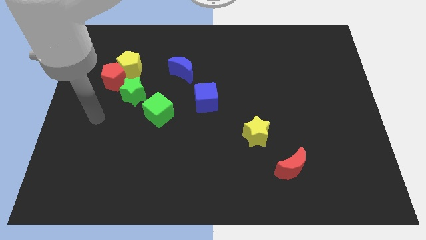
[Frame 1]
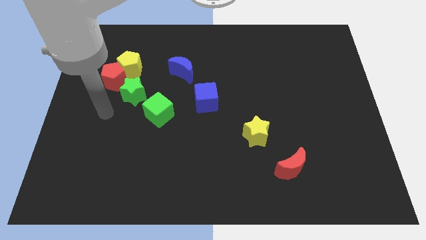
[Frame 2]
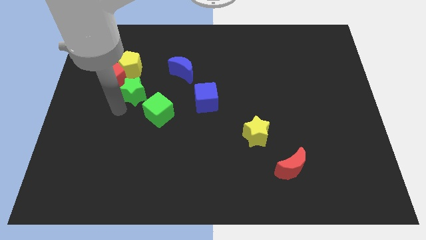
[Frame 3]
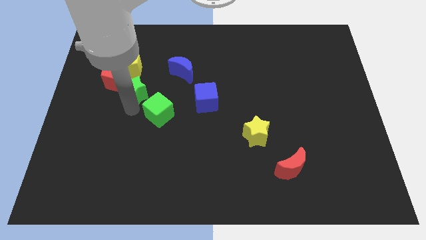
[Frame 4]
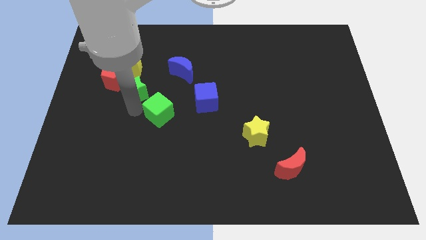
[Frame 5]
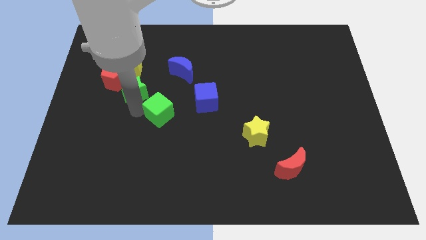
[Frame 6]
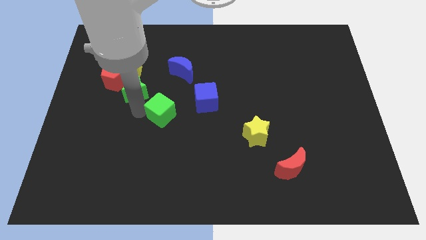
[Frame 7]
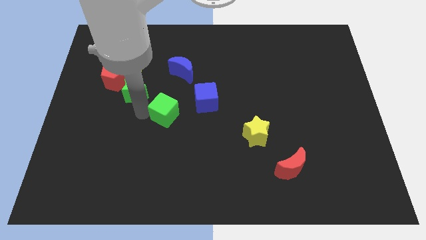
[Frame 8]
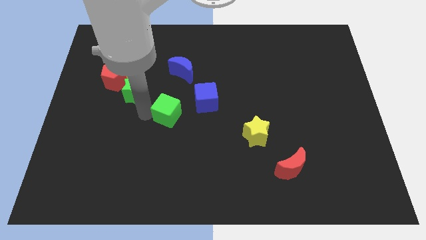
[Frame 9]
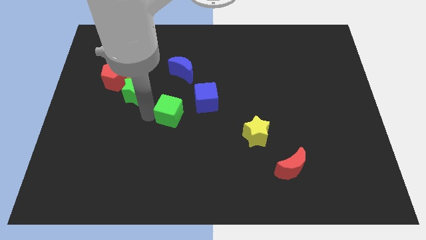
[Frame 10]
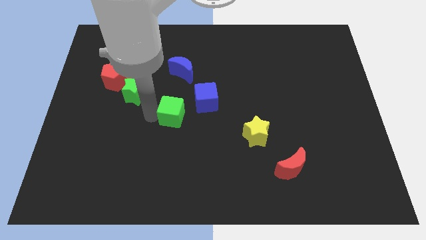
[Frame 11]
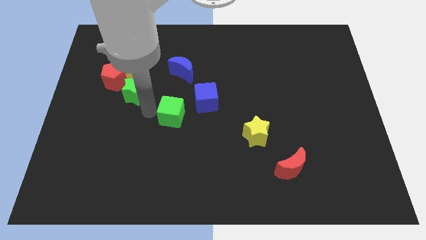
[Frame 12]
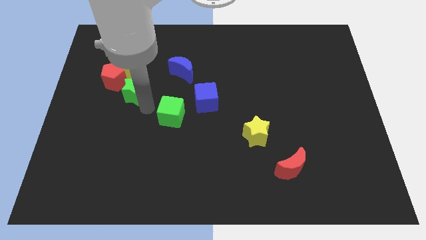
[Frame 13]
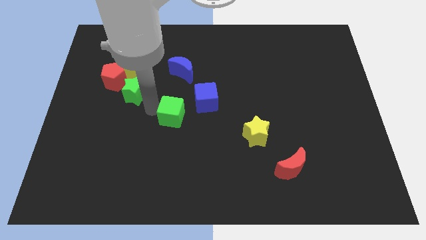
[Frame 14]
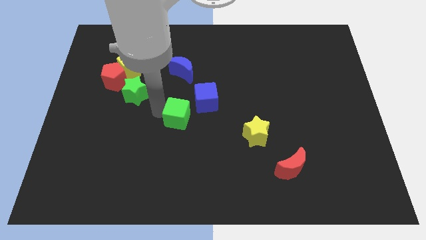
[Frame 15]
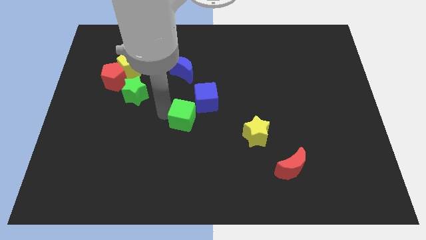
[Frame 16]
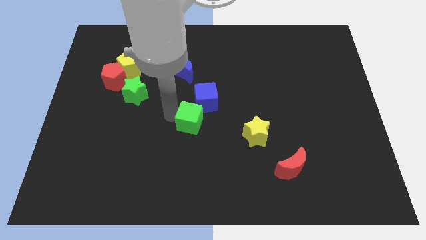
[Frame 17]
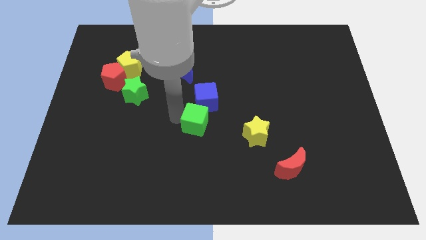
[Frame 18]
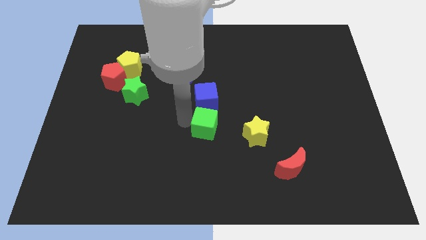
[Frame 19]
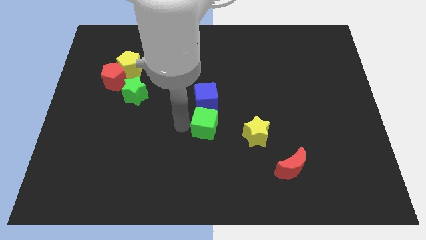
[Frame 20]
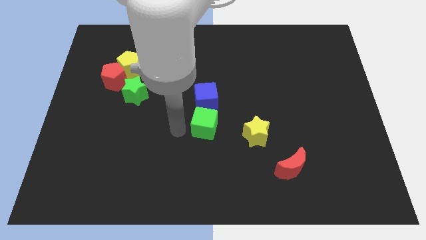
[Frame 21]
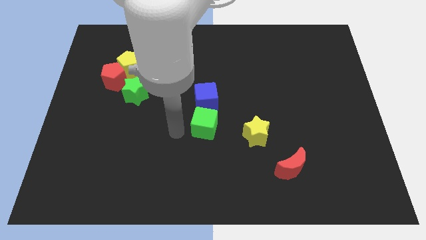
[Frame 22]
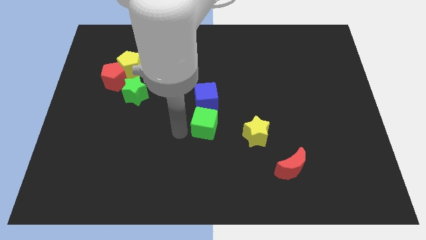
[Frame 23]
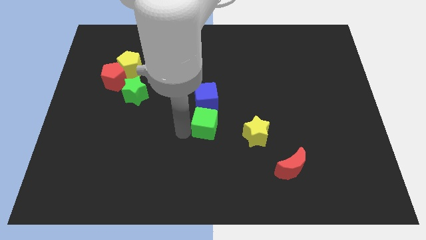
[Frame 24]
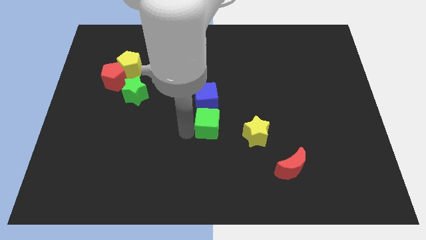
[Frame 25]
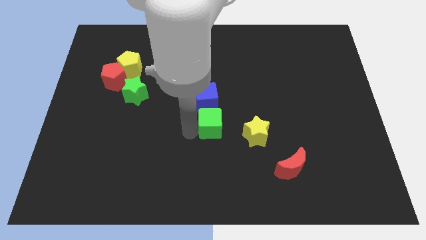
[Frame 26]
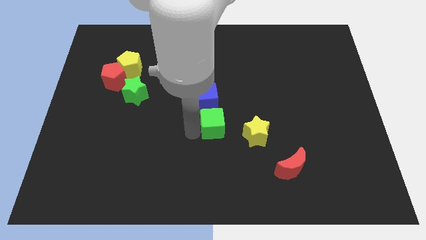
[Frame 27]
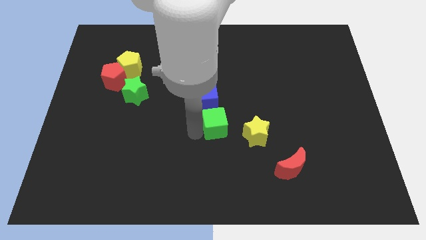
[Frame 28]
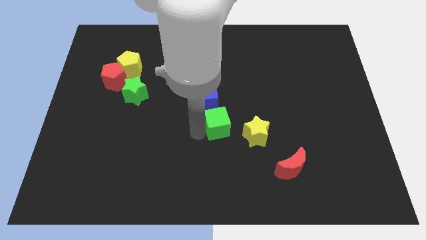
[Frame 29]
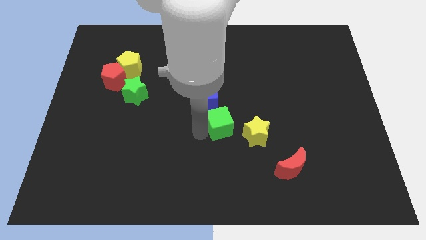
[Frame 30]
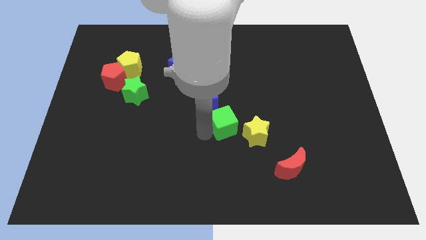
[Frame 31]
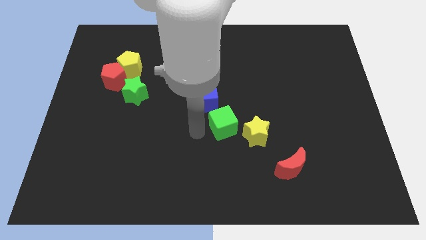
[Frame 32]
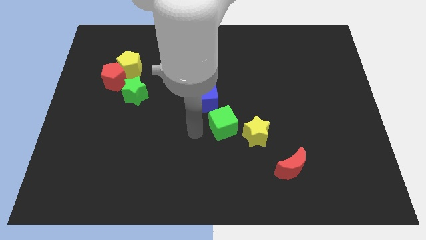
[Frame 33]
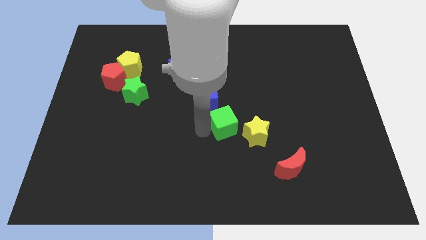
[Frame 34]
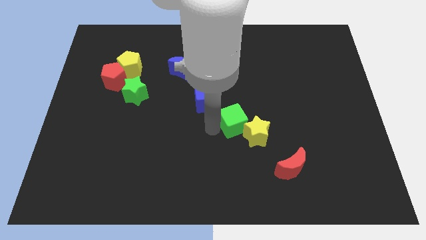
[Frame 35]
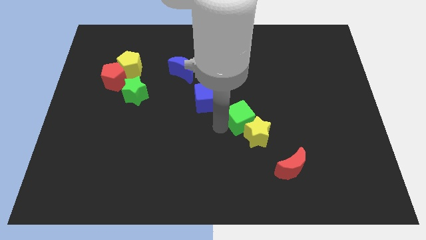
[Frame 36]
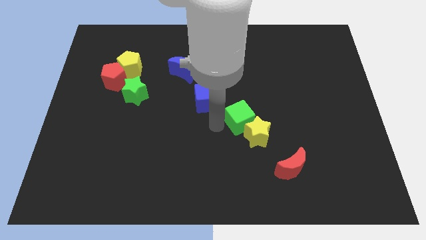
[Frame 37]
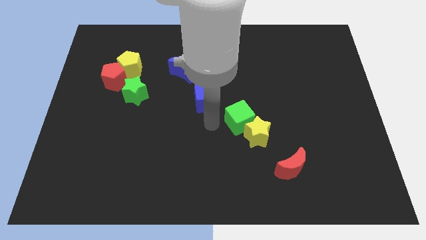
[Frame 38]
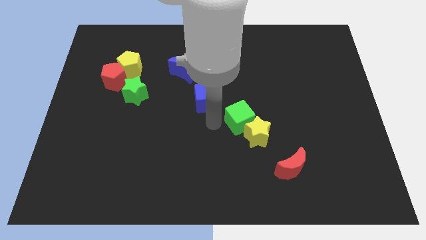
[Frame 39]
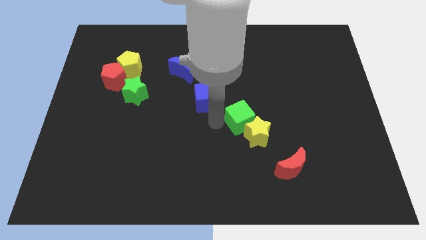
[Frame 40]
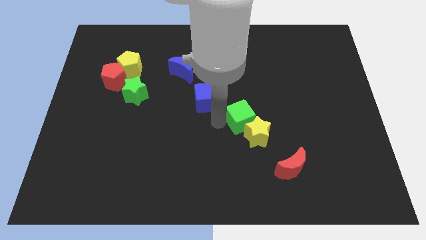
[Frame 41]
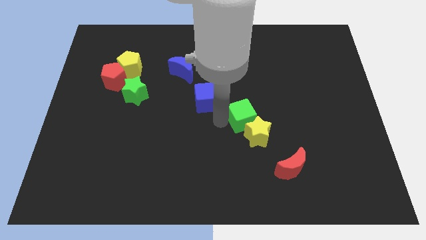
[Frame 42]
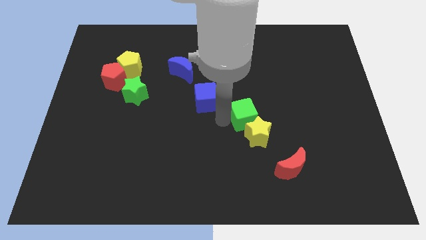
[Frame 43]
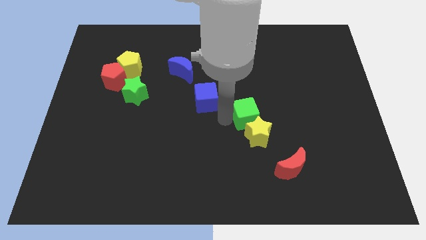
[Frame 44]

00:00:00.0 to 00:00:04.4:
push the green cube to the right

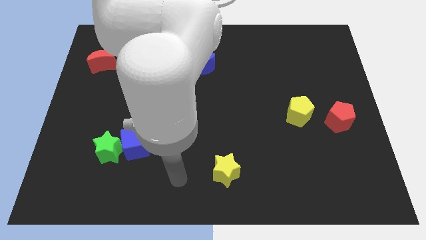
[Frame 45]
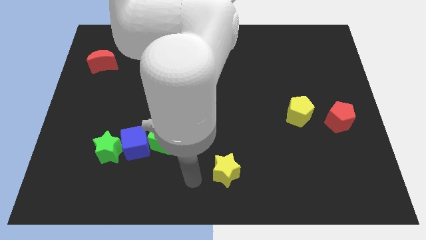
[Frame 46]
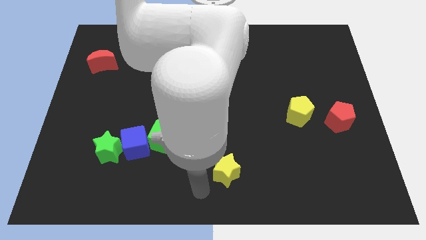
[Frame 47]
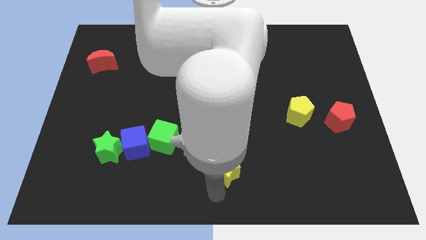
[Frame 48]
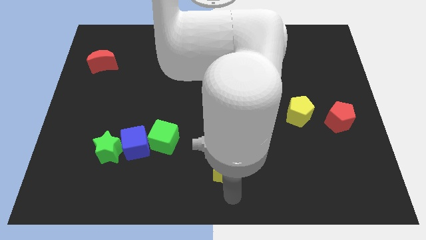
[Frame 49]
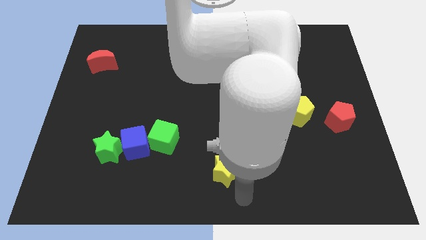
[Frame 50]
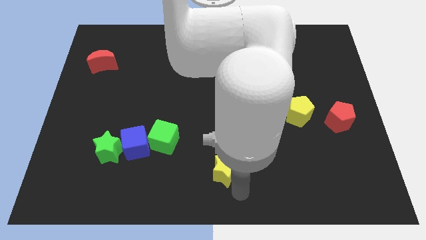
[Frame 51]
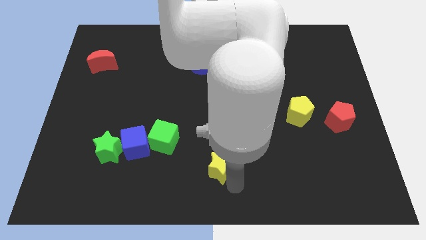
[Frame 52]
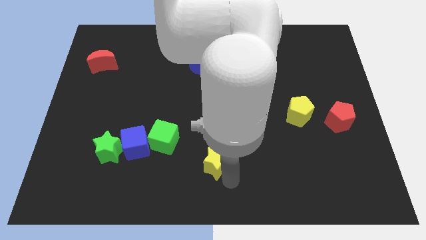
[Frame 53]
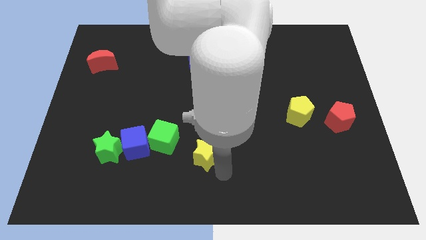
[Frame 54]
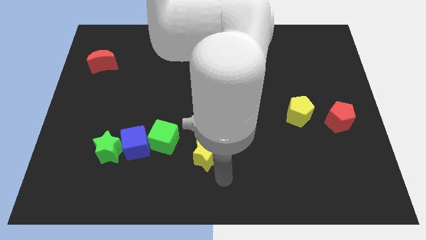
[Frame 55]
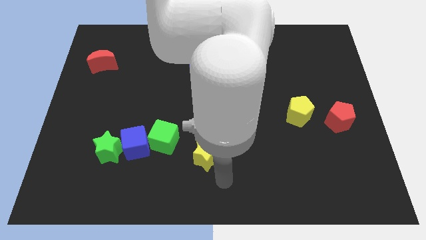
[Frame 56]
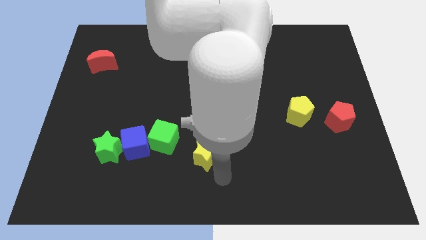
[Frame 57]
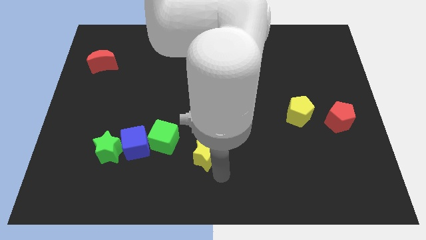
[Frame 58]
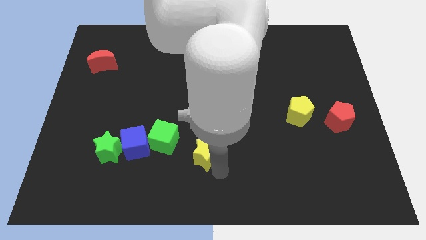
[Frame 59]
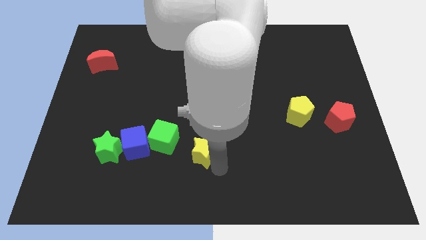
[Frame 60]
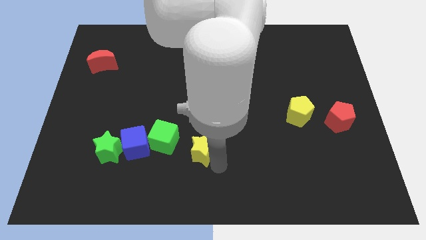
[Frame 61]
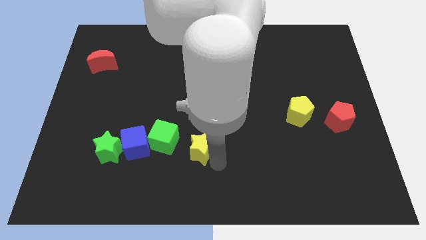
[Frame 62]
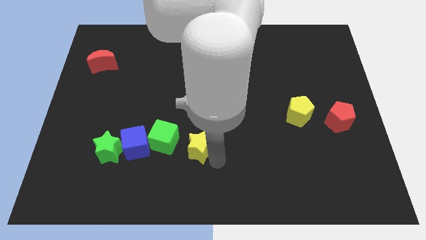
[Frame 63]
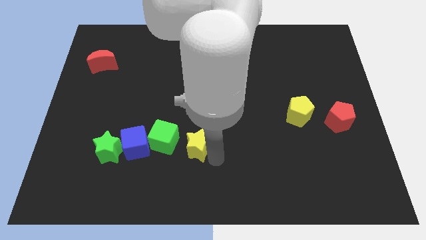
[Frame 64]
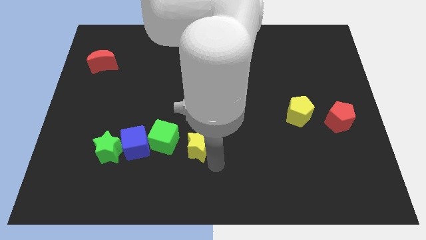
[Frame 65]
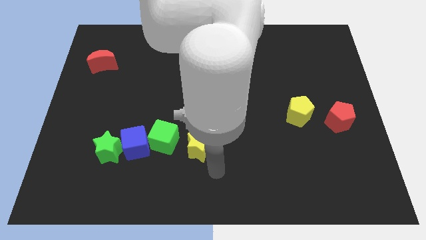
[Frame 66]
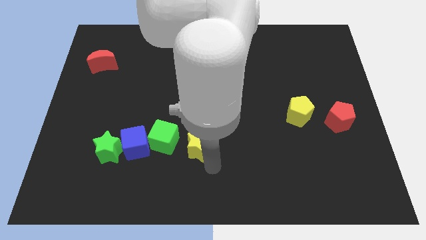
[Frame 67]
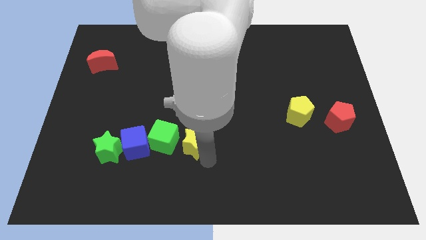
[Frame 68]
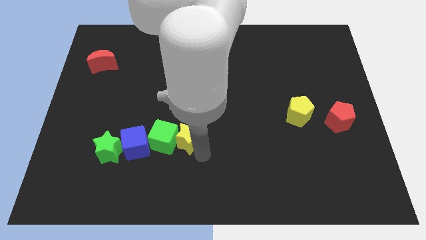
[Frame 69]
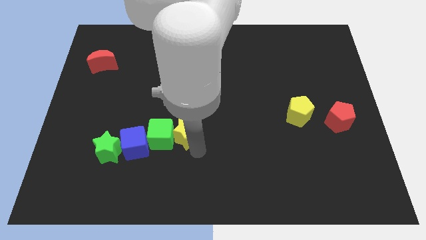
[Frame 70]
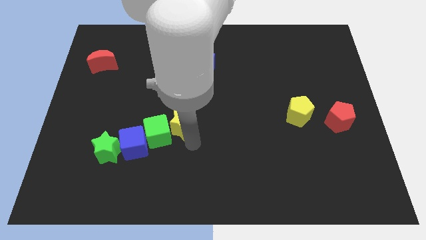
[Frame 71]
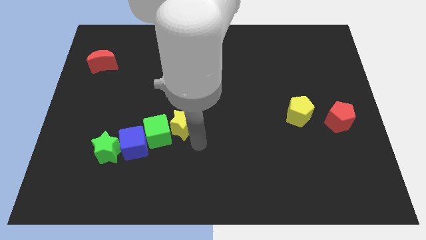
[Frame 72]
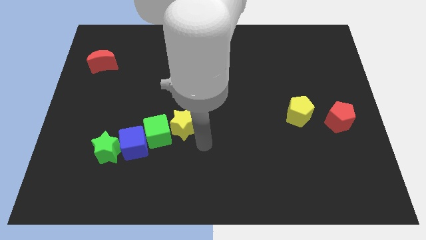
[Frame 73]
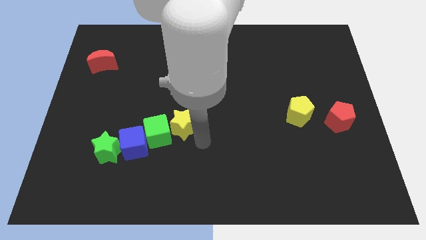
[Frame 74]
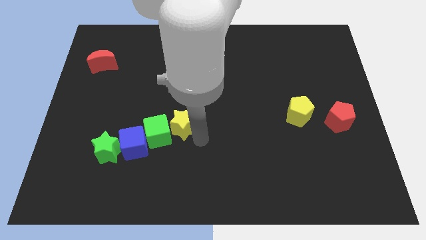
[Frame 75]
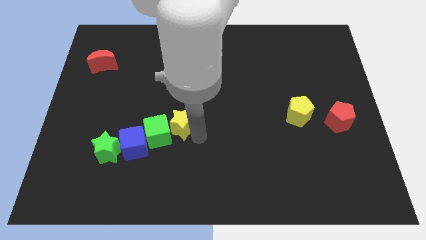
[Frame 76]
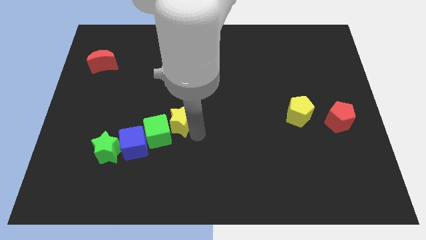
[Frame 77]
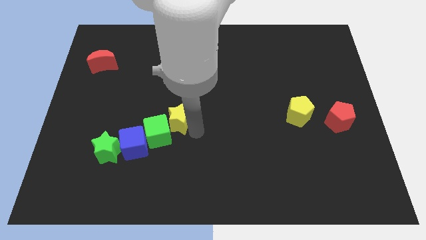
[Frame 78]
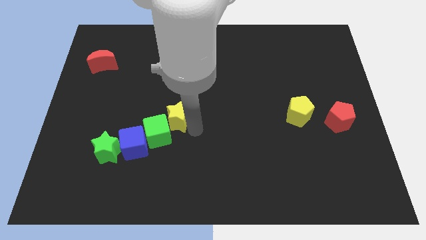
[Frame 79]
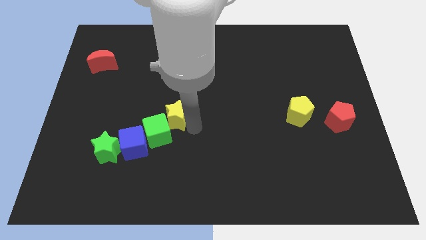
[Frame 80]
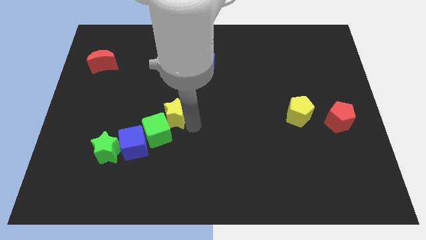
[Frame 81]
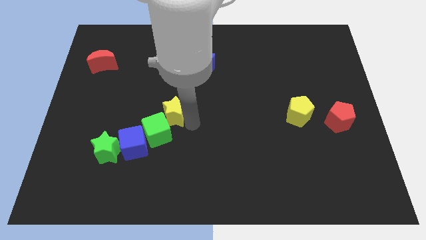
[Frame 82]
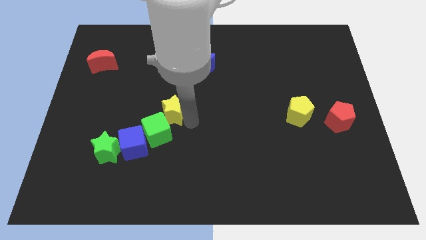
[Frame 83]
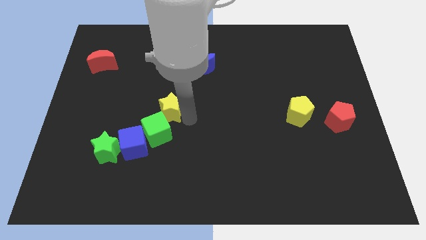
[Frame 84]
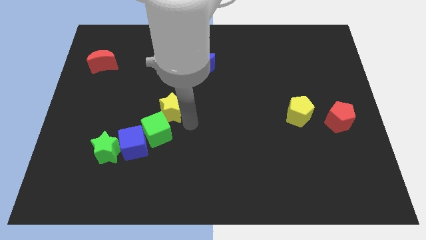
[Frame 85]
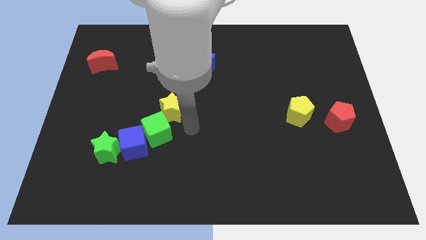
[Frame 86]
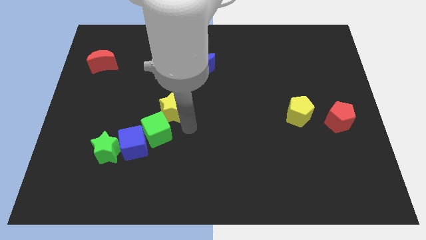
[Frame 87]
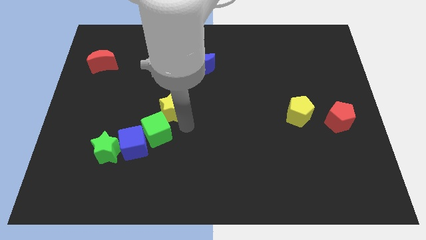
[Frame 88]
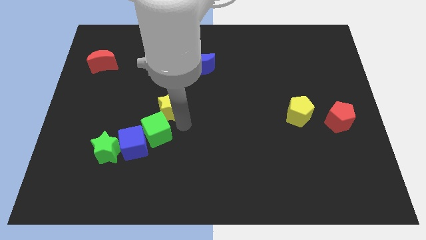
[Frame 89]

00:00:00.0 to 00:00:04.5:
push the yellow star diagonally upwards and to the left
